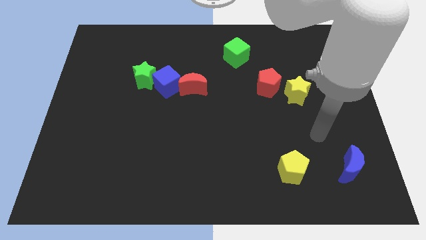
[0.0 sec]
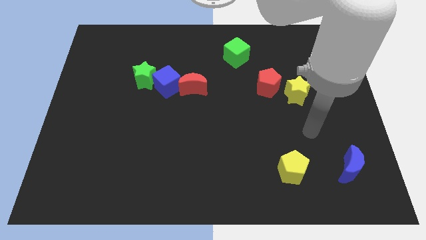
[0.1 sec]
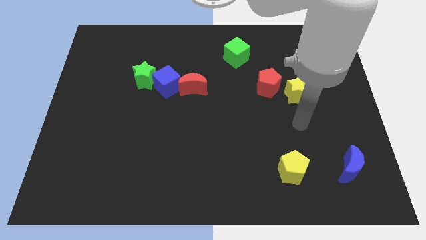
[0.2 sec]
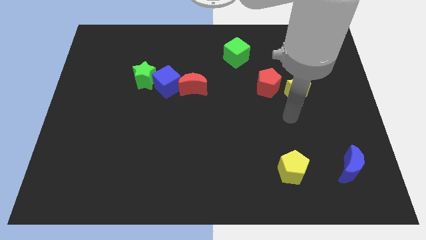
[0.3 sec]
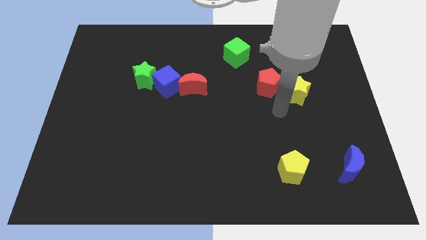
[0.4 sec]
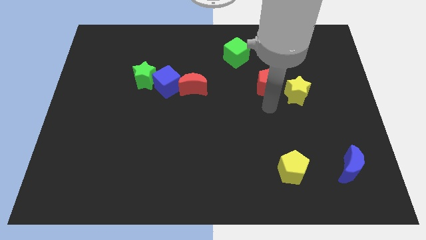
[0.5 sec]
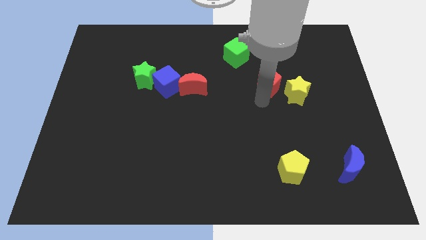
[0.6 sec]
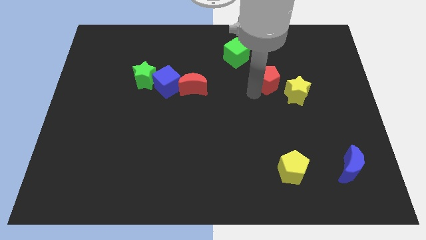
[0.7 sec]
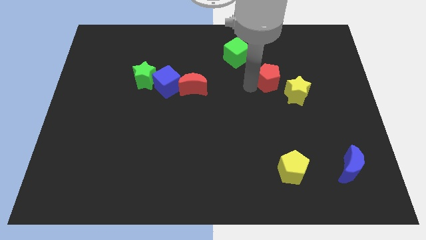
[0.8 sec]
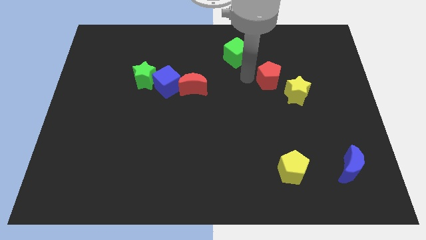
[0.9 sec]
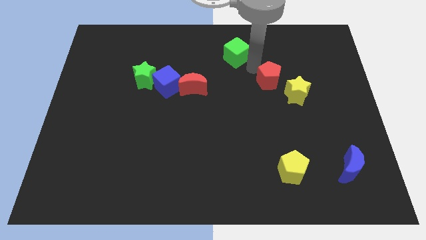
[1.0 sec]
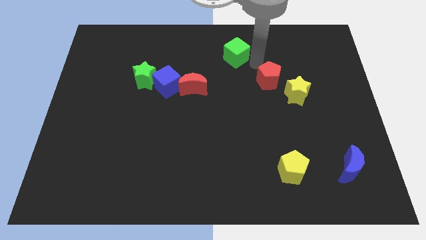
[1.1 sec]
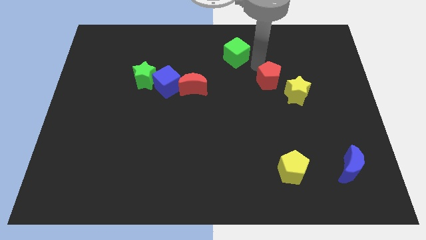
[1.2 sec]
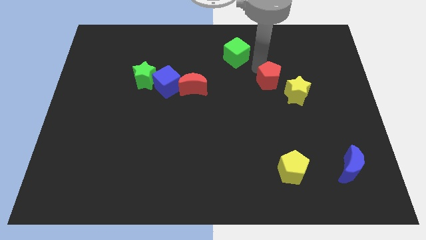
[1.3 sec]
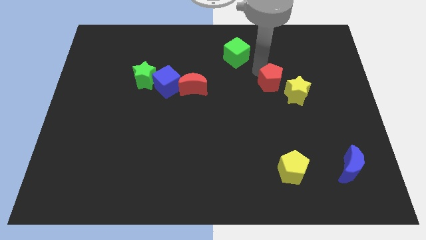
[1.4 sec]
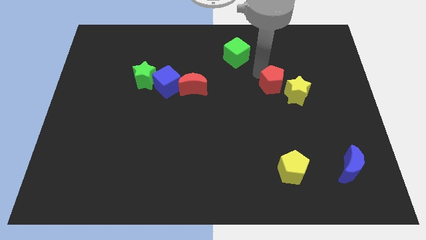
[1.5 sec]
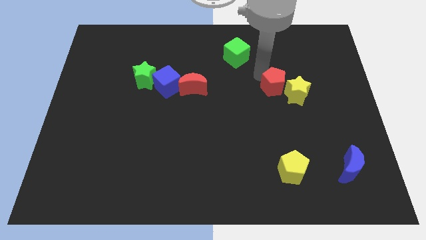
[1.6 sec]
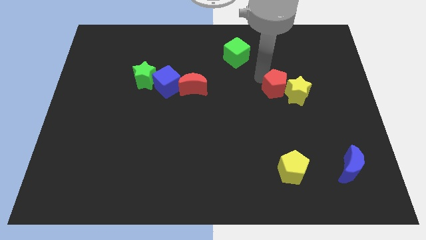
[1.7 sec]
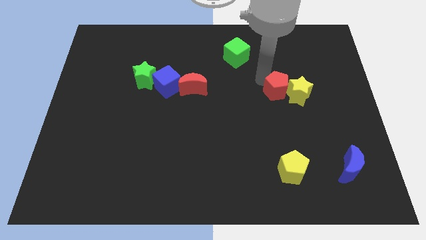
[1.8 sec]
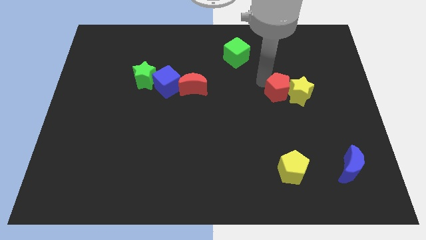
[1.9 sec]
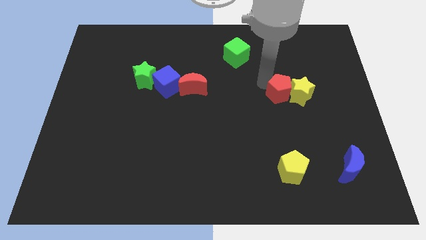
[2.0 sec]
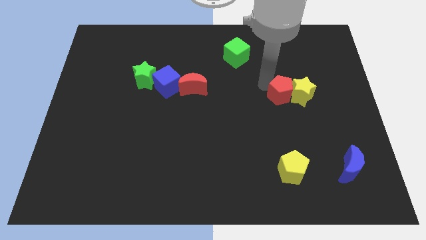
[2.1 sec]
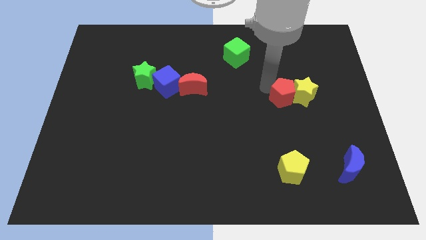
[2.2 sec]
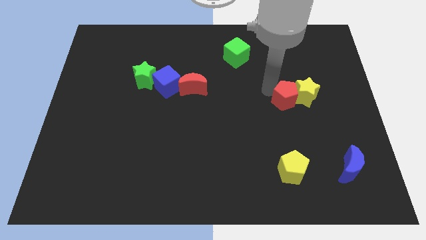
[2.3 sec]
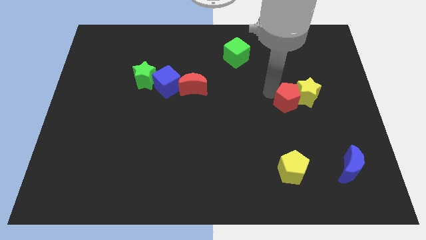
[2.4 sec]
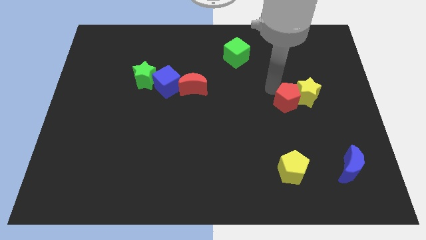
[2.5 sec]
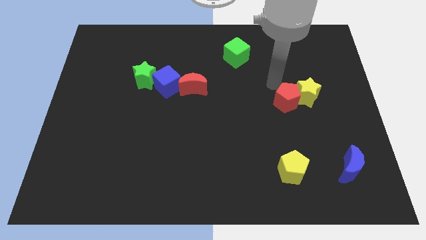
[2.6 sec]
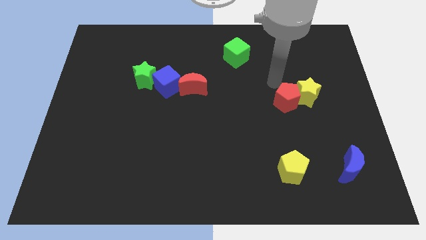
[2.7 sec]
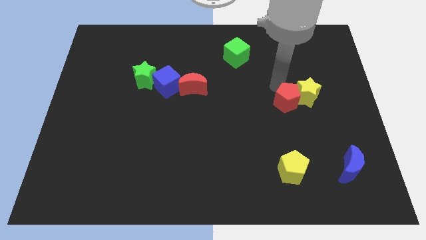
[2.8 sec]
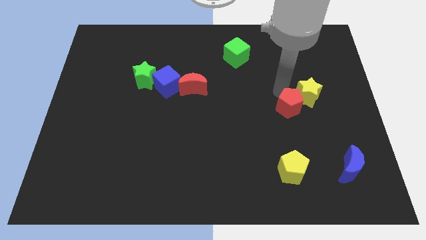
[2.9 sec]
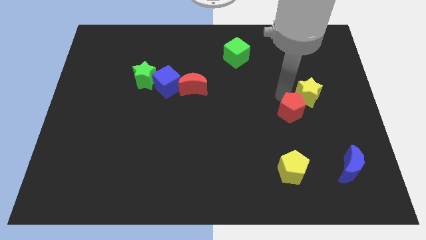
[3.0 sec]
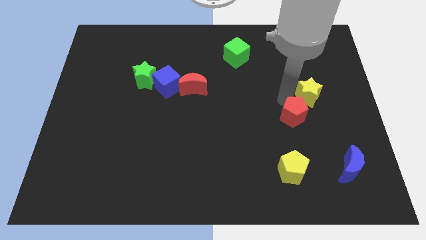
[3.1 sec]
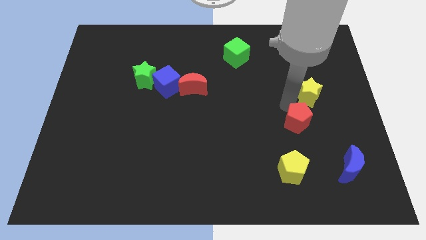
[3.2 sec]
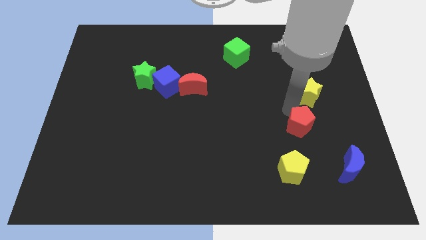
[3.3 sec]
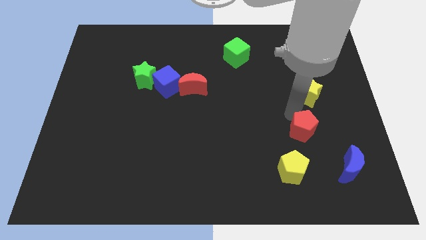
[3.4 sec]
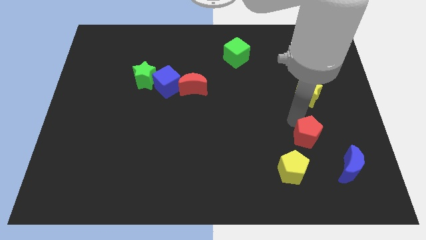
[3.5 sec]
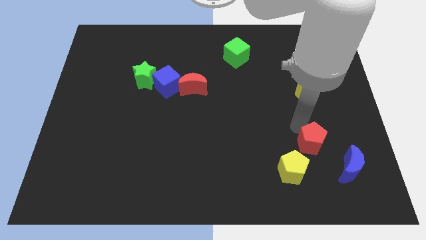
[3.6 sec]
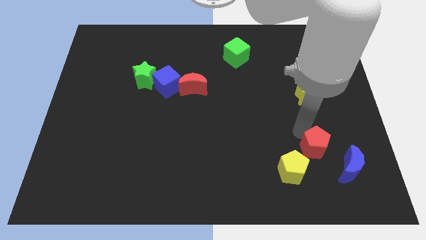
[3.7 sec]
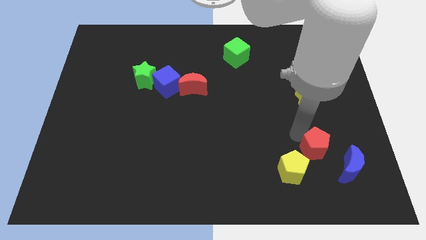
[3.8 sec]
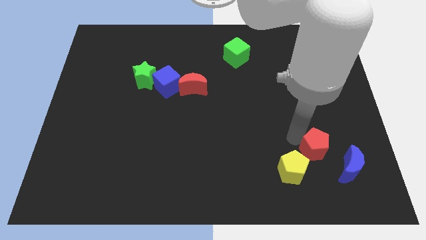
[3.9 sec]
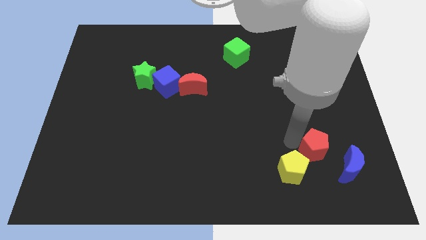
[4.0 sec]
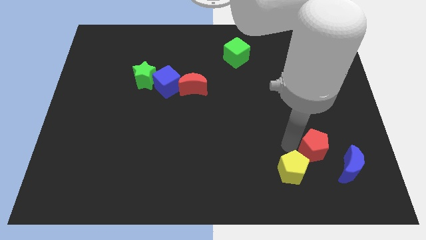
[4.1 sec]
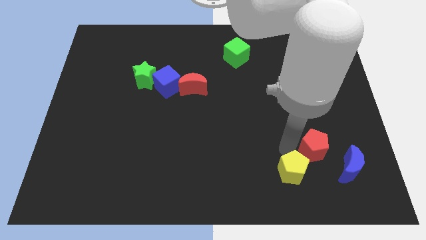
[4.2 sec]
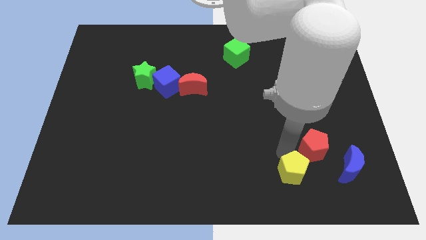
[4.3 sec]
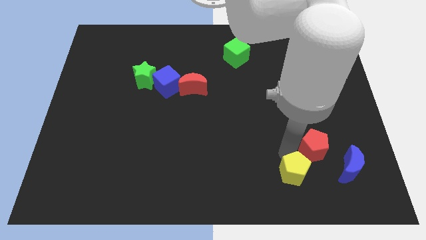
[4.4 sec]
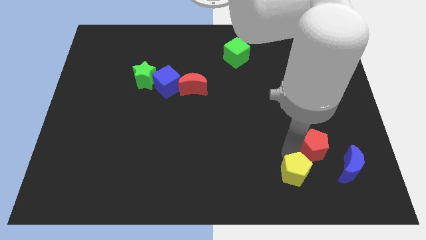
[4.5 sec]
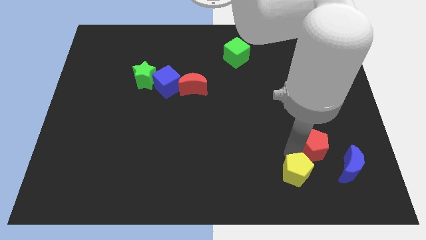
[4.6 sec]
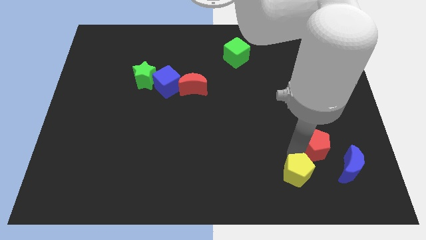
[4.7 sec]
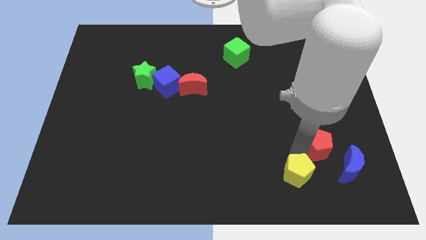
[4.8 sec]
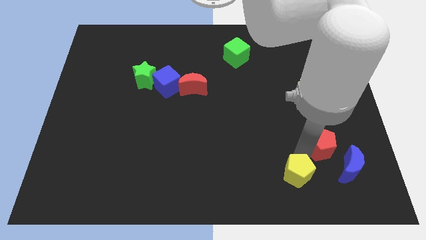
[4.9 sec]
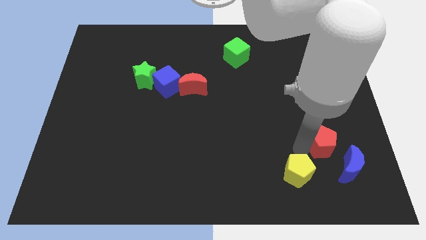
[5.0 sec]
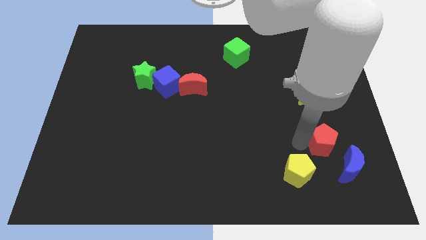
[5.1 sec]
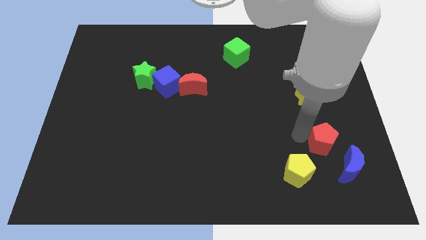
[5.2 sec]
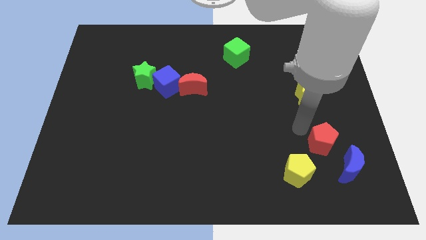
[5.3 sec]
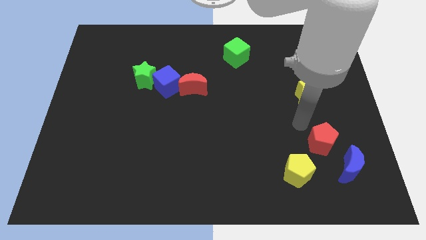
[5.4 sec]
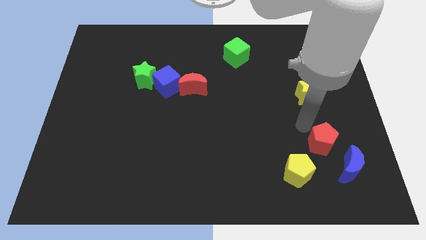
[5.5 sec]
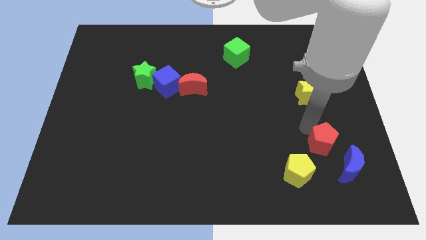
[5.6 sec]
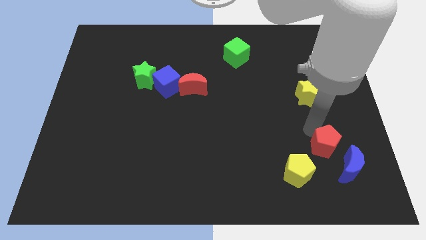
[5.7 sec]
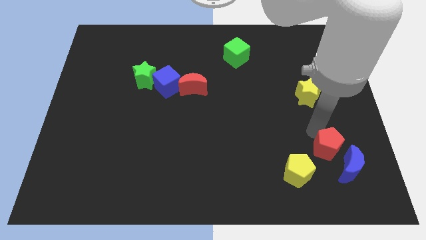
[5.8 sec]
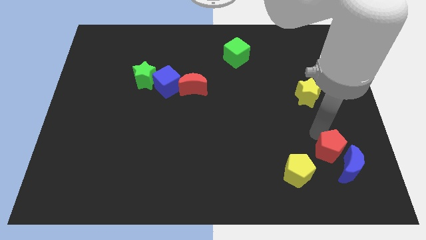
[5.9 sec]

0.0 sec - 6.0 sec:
slide the red pentagon to the blue moon

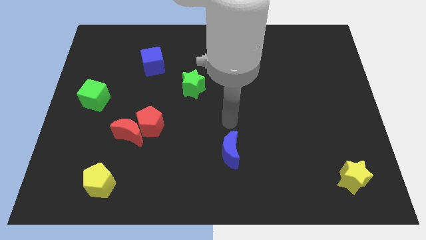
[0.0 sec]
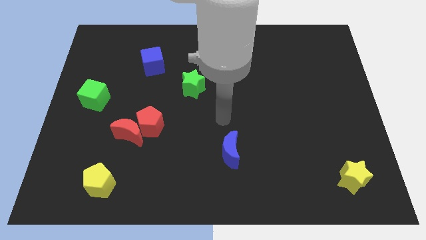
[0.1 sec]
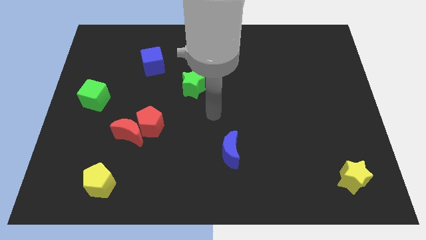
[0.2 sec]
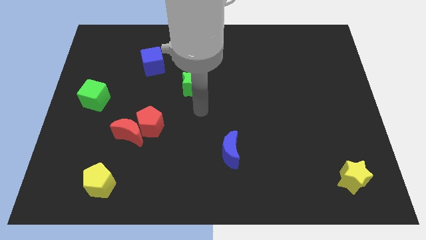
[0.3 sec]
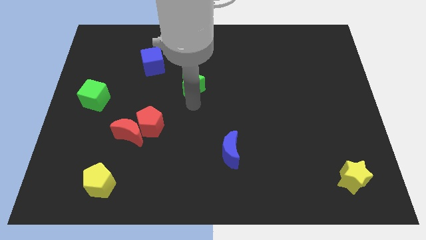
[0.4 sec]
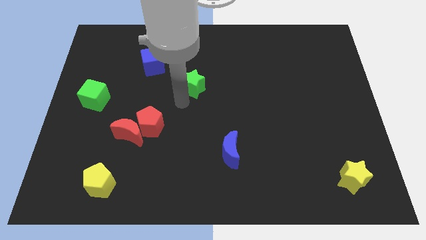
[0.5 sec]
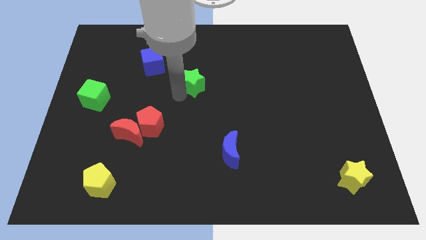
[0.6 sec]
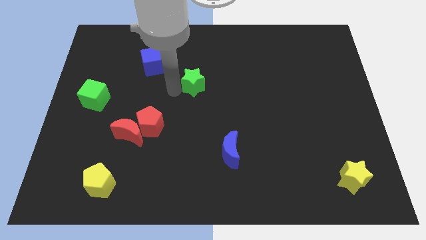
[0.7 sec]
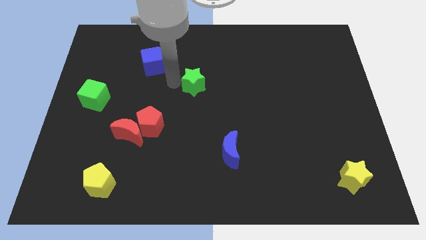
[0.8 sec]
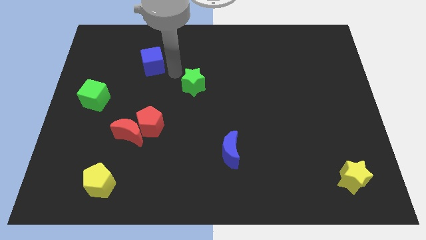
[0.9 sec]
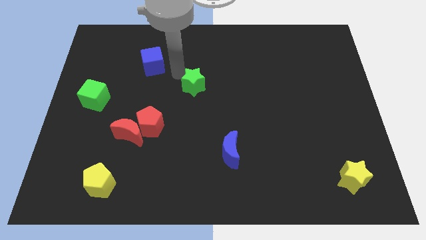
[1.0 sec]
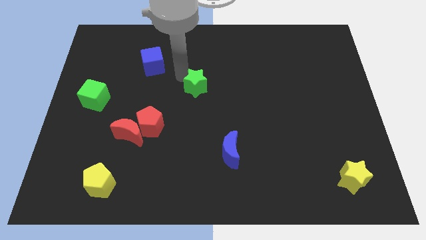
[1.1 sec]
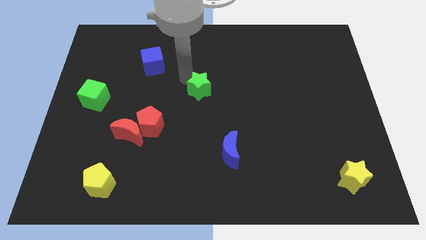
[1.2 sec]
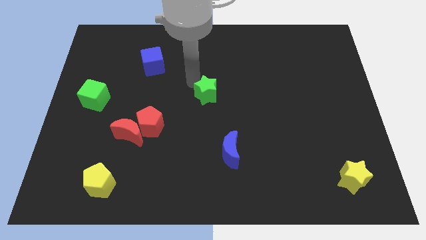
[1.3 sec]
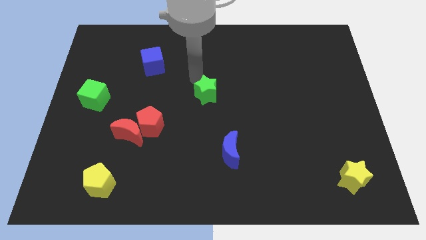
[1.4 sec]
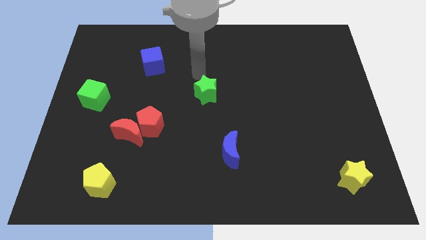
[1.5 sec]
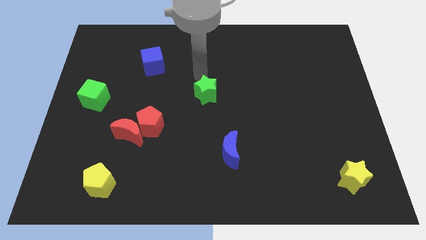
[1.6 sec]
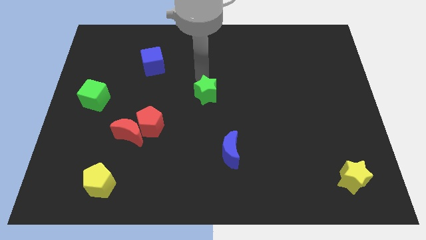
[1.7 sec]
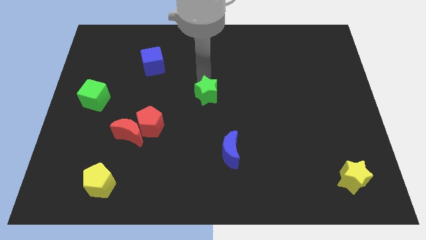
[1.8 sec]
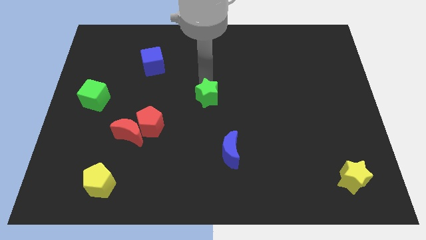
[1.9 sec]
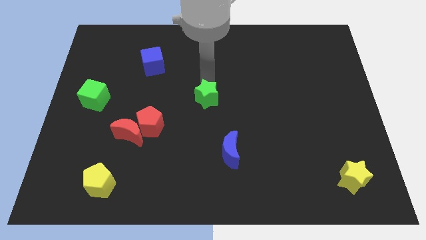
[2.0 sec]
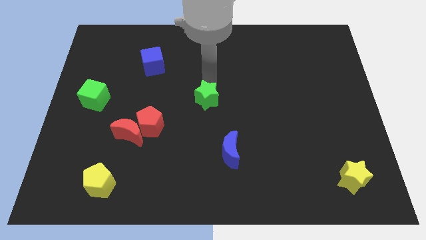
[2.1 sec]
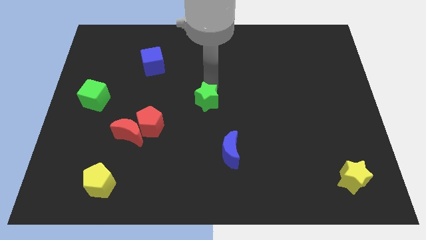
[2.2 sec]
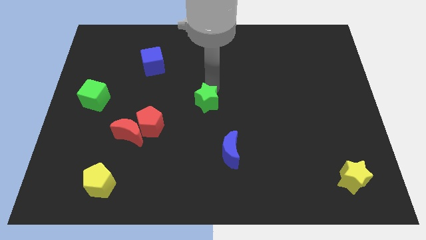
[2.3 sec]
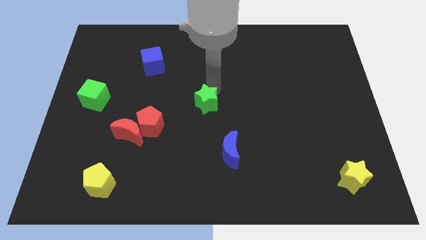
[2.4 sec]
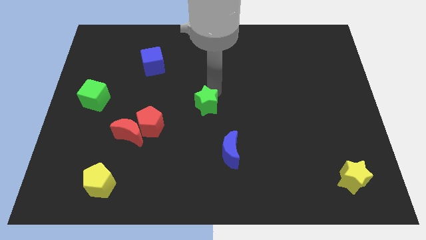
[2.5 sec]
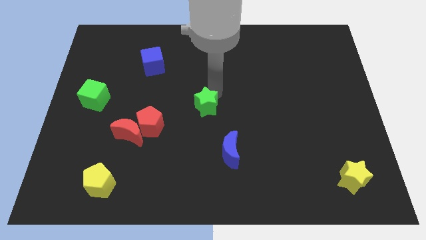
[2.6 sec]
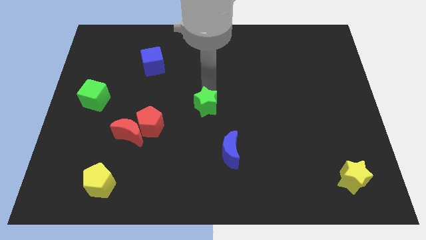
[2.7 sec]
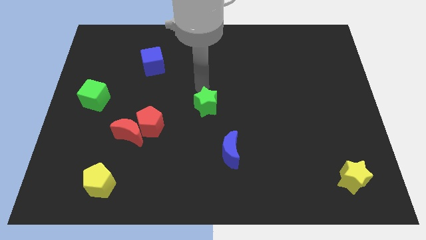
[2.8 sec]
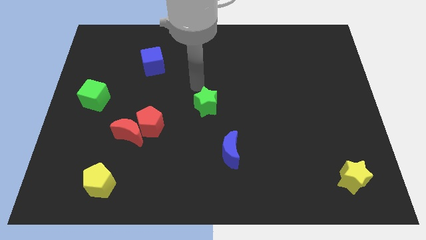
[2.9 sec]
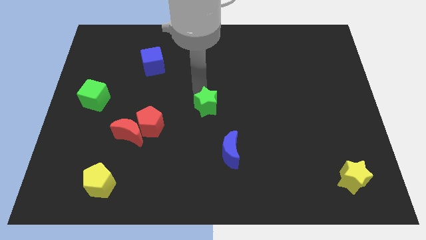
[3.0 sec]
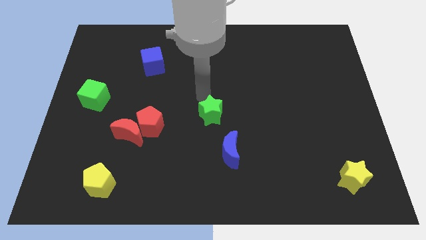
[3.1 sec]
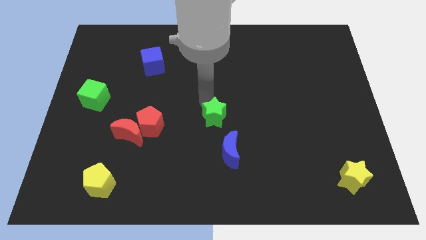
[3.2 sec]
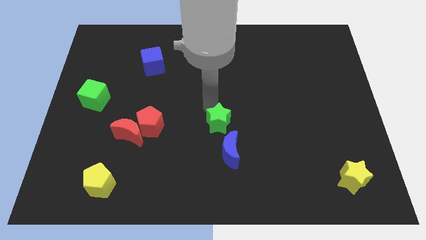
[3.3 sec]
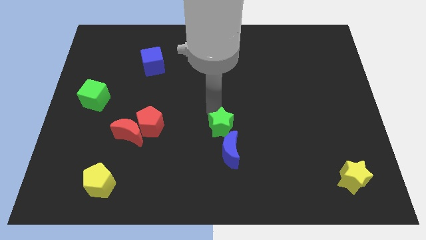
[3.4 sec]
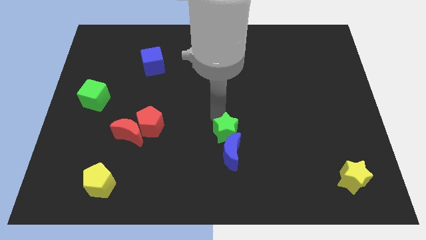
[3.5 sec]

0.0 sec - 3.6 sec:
put the green star next to the blue moon
